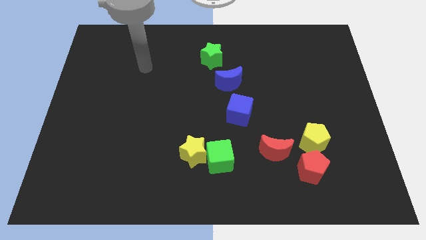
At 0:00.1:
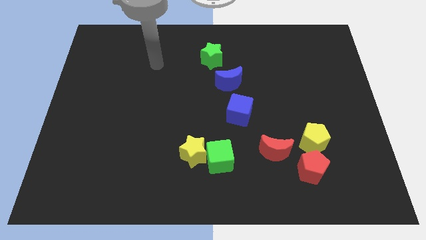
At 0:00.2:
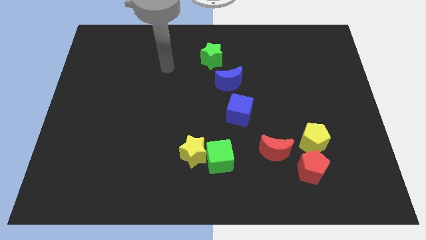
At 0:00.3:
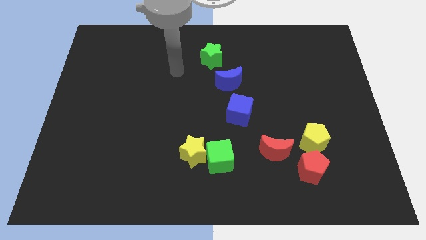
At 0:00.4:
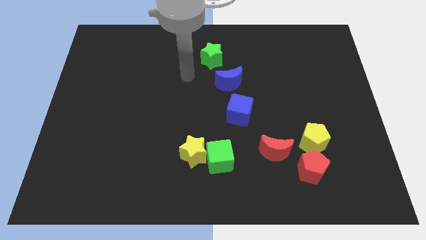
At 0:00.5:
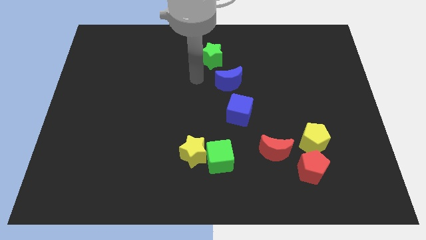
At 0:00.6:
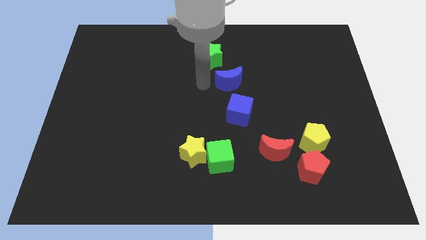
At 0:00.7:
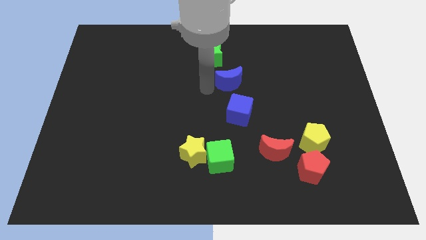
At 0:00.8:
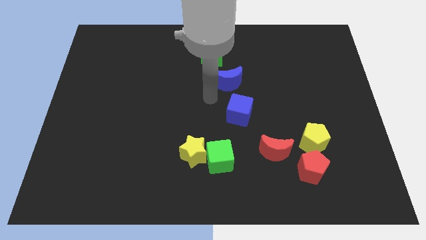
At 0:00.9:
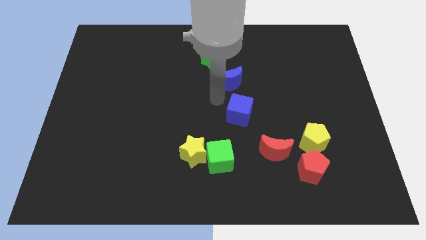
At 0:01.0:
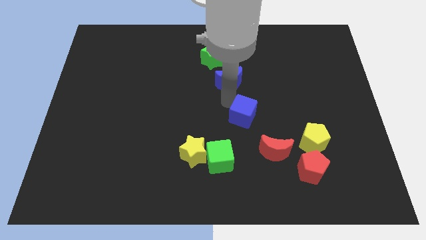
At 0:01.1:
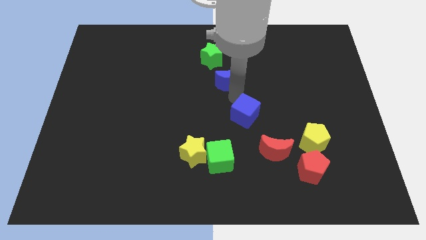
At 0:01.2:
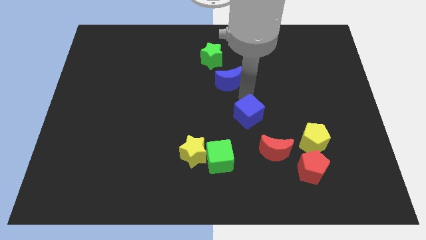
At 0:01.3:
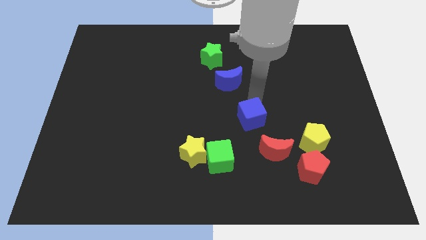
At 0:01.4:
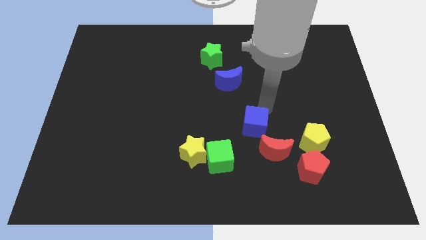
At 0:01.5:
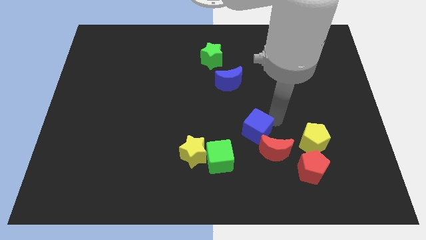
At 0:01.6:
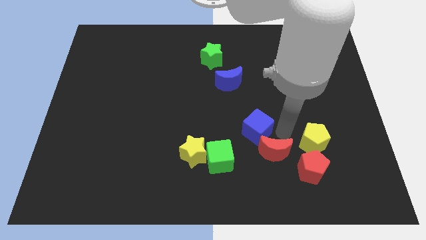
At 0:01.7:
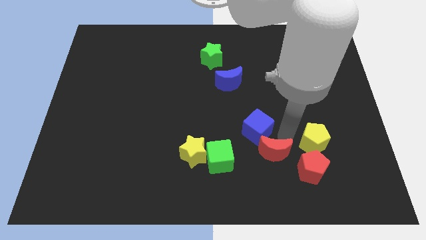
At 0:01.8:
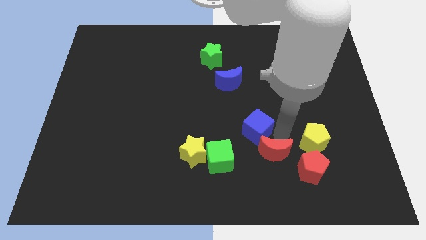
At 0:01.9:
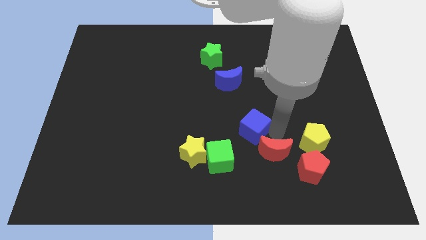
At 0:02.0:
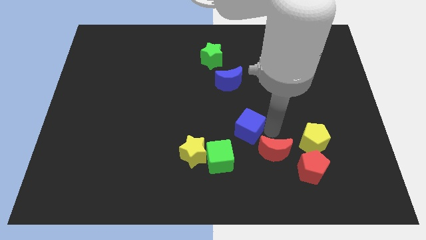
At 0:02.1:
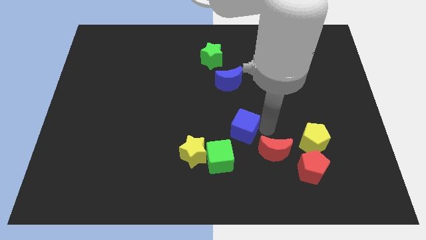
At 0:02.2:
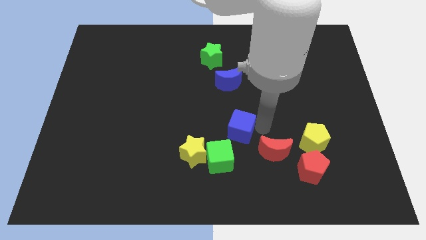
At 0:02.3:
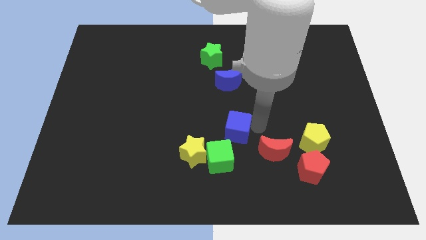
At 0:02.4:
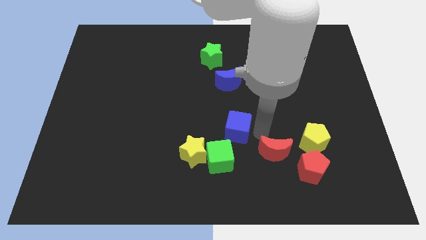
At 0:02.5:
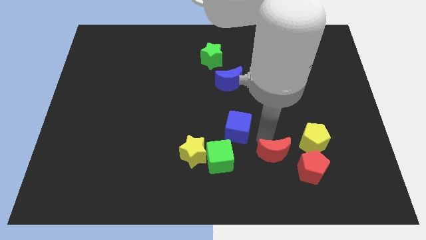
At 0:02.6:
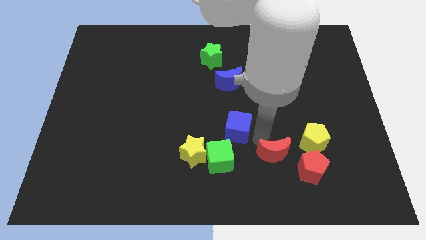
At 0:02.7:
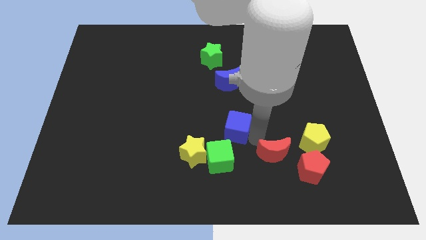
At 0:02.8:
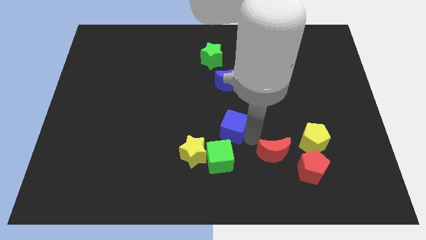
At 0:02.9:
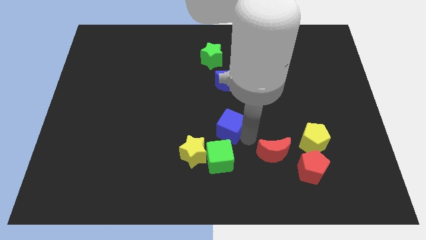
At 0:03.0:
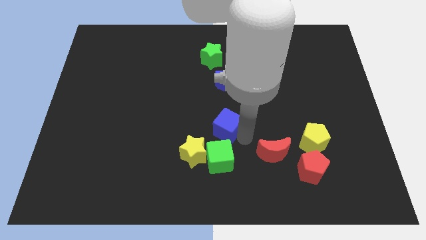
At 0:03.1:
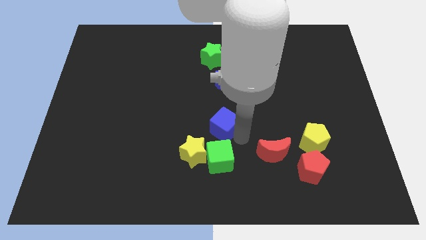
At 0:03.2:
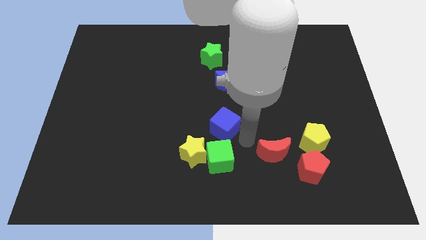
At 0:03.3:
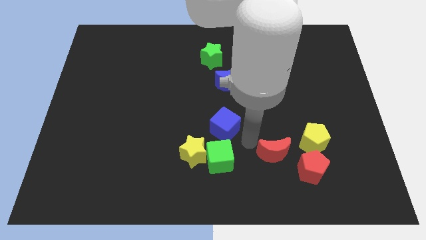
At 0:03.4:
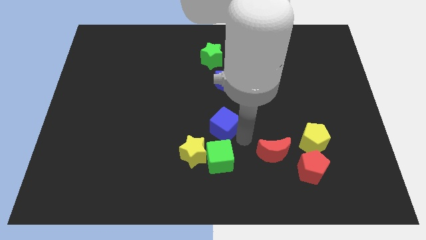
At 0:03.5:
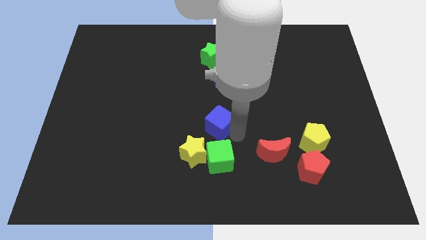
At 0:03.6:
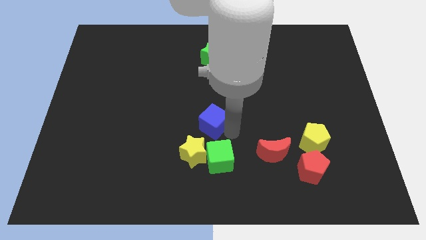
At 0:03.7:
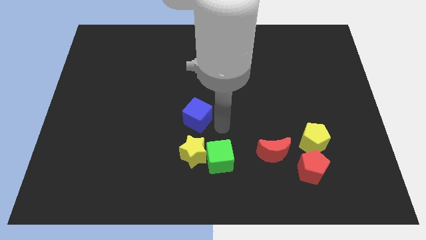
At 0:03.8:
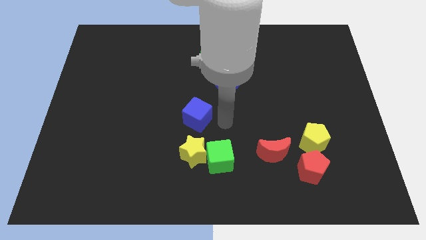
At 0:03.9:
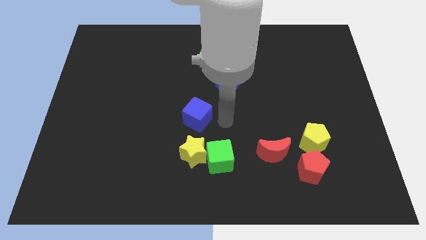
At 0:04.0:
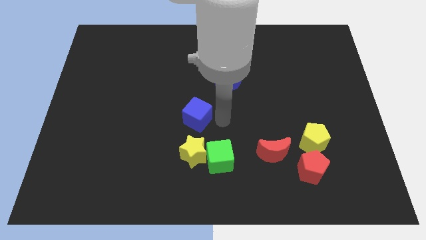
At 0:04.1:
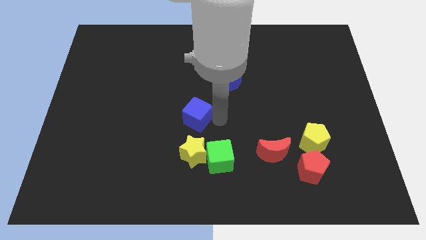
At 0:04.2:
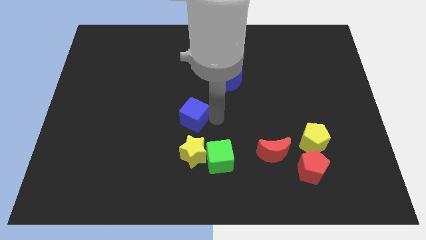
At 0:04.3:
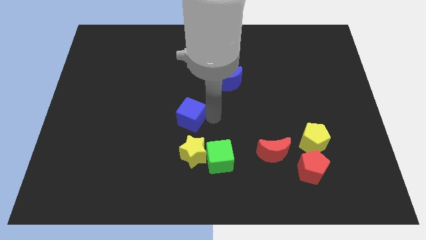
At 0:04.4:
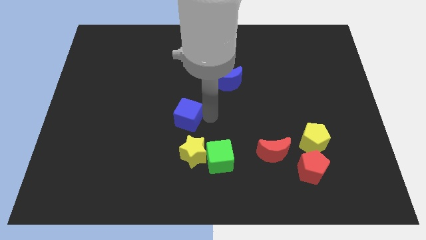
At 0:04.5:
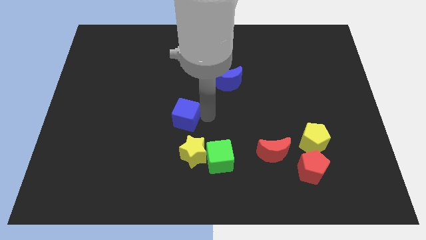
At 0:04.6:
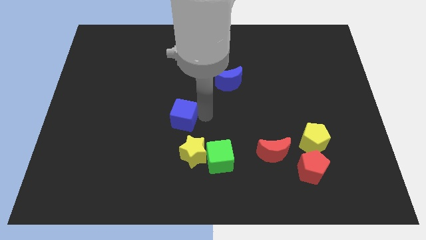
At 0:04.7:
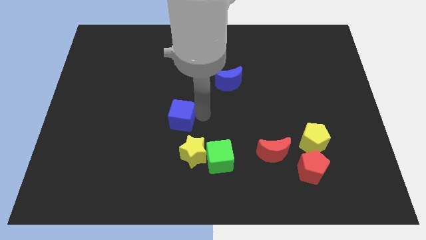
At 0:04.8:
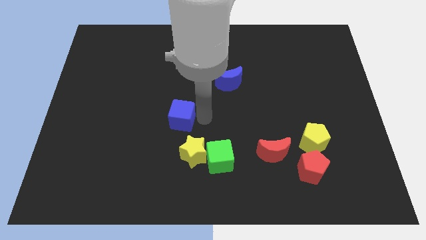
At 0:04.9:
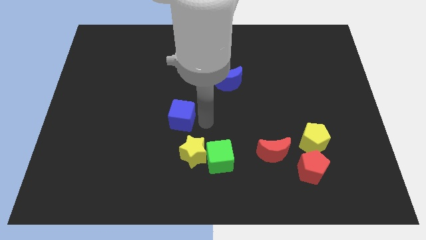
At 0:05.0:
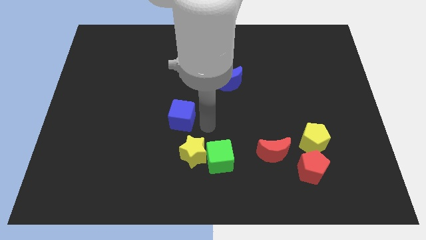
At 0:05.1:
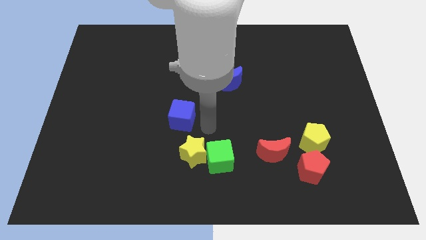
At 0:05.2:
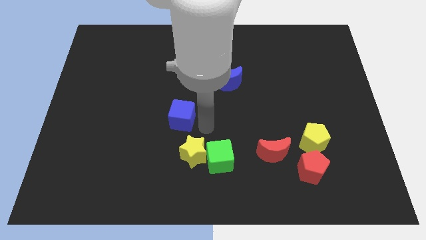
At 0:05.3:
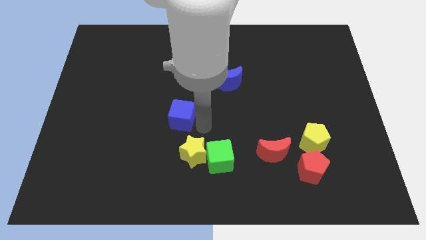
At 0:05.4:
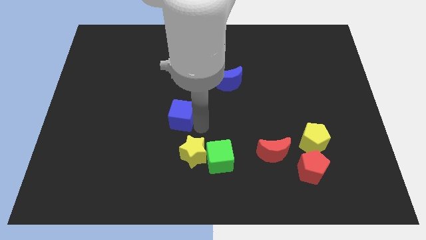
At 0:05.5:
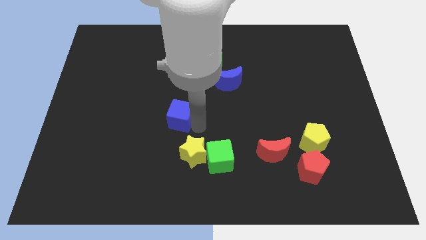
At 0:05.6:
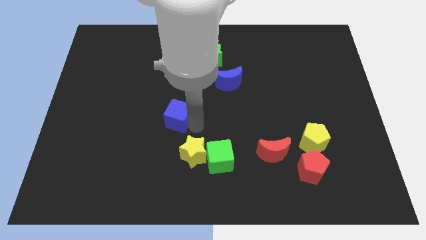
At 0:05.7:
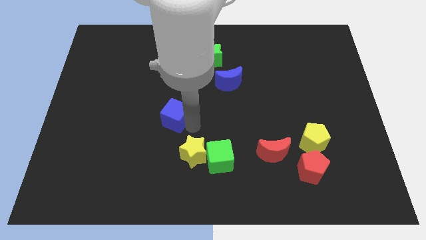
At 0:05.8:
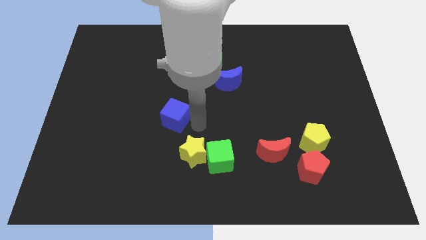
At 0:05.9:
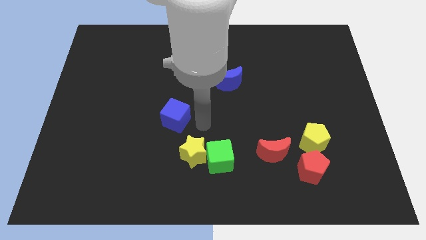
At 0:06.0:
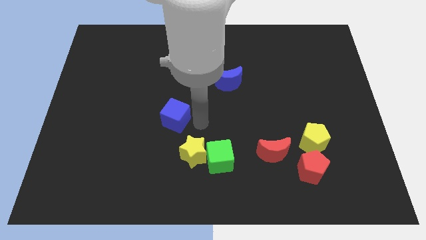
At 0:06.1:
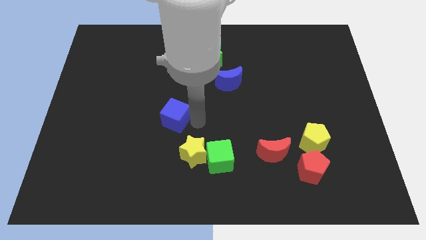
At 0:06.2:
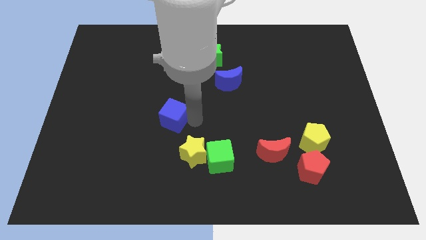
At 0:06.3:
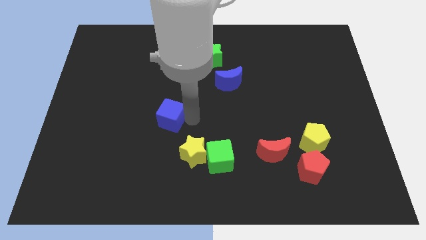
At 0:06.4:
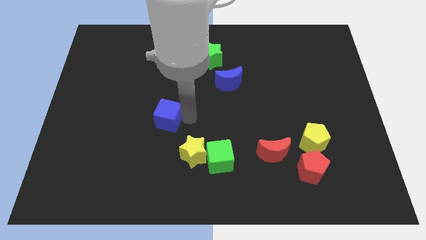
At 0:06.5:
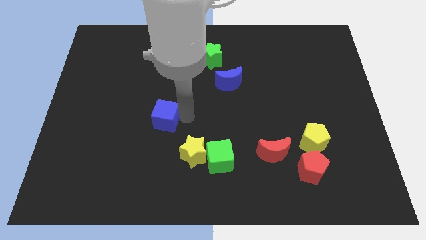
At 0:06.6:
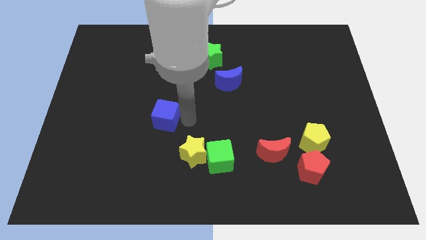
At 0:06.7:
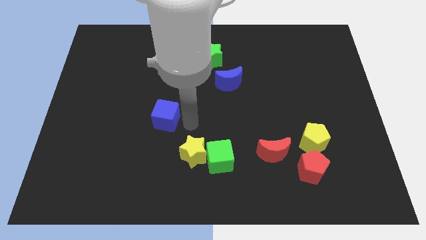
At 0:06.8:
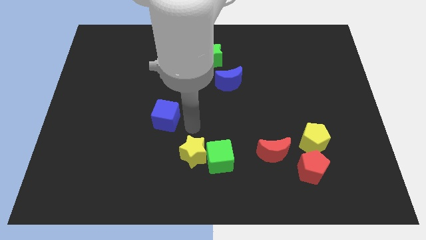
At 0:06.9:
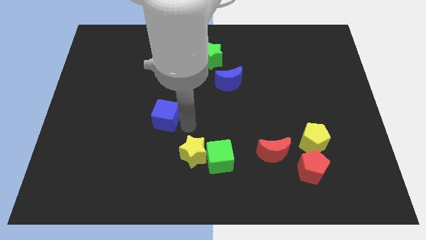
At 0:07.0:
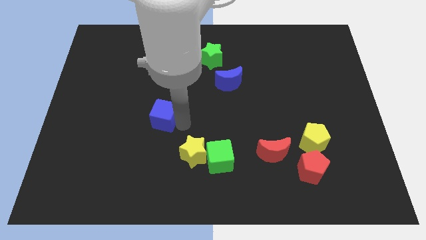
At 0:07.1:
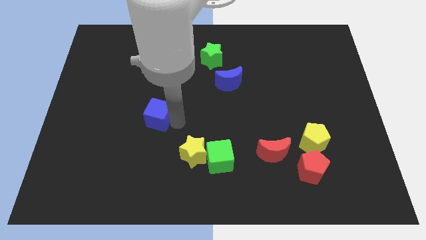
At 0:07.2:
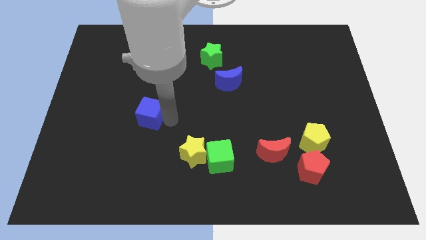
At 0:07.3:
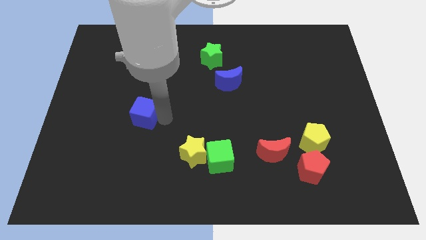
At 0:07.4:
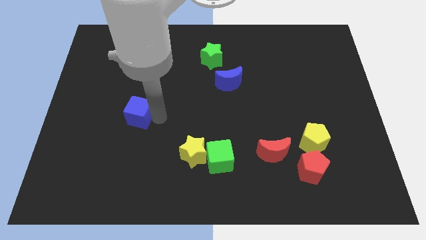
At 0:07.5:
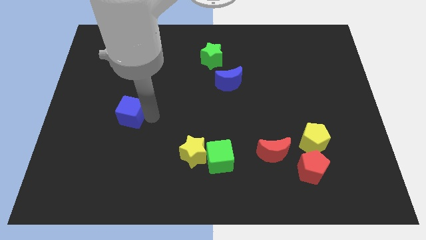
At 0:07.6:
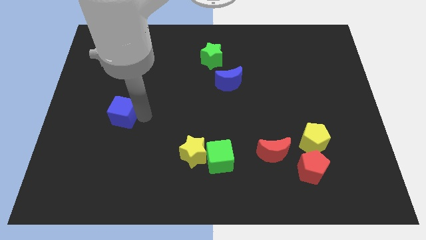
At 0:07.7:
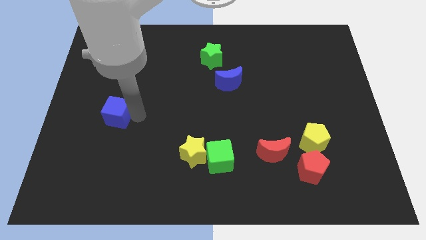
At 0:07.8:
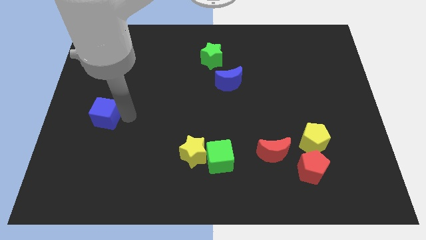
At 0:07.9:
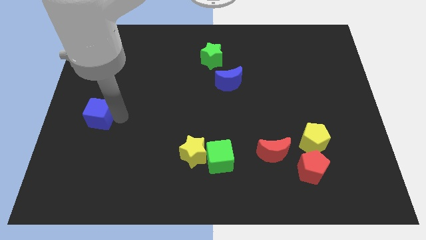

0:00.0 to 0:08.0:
slide the blue cube to the center left
